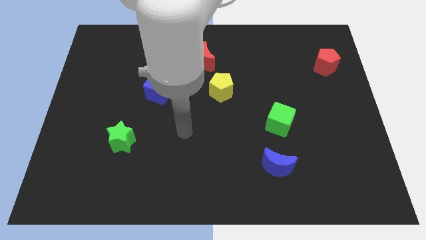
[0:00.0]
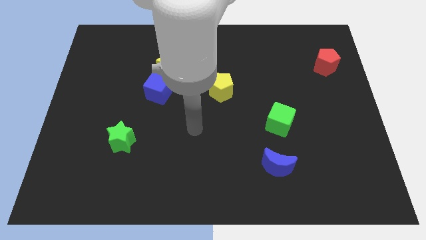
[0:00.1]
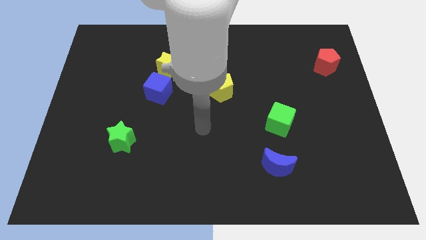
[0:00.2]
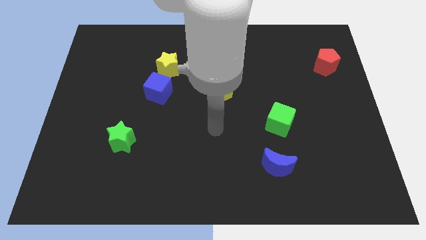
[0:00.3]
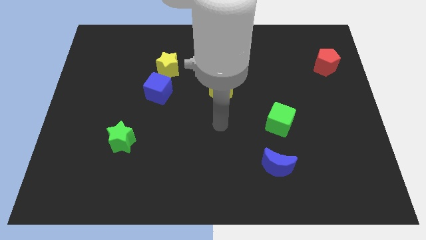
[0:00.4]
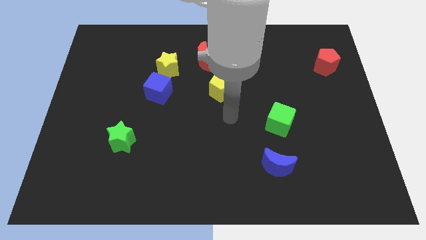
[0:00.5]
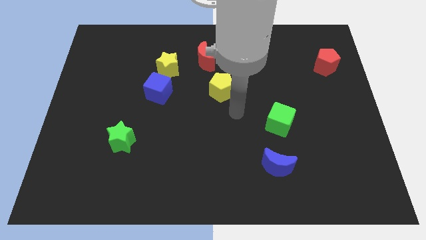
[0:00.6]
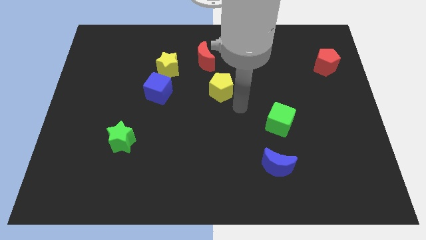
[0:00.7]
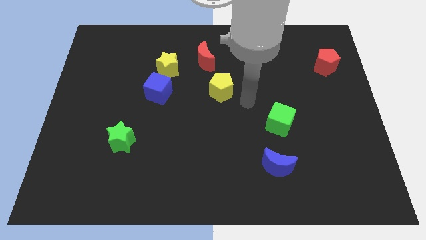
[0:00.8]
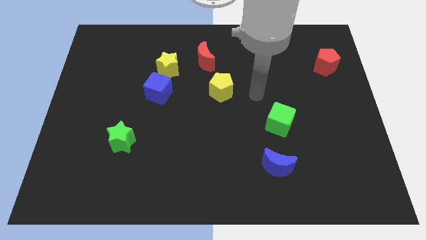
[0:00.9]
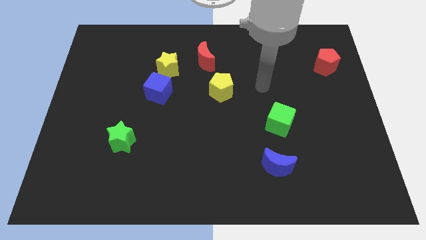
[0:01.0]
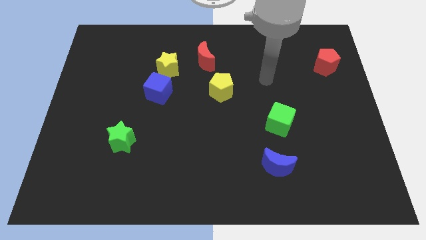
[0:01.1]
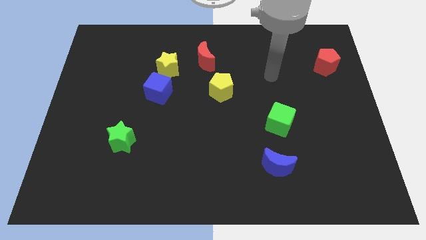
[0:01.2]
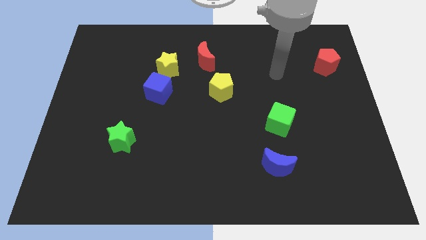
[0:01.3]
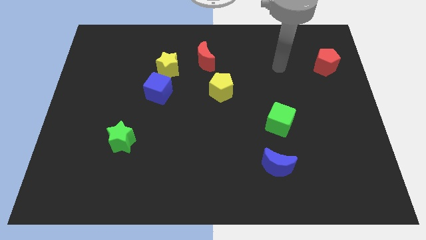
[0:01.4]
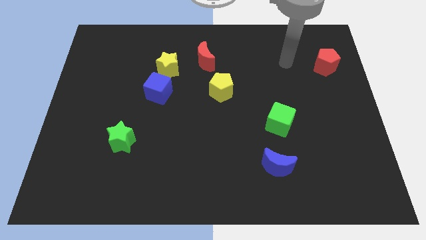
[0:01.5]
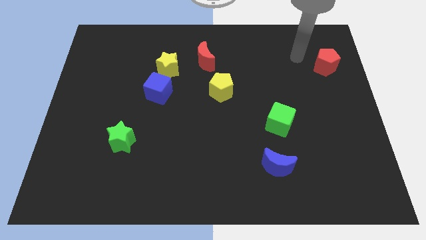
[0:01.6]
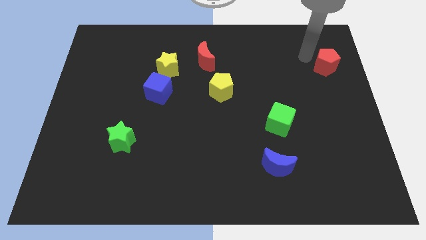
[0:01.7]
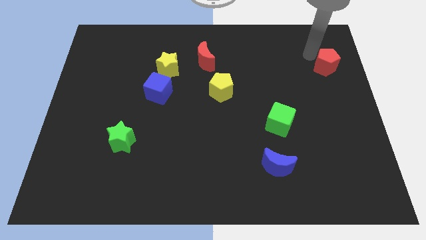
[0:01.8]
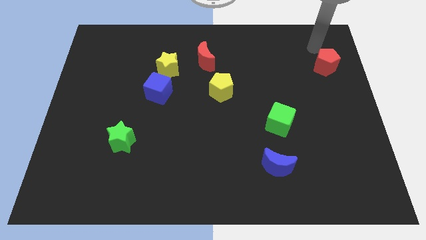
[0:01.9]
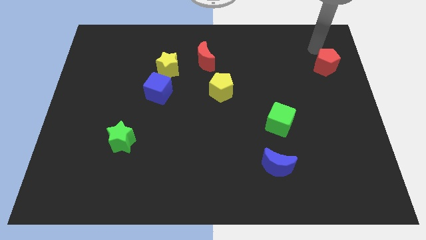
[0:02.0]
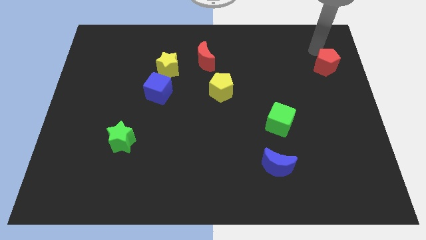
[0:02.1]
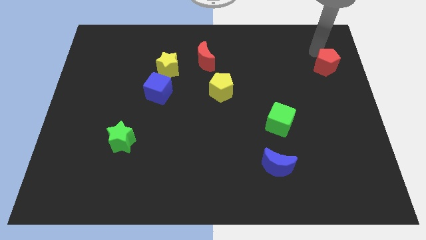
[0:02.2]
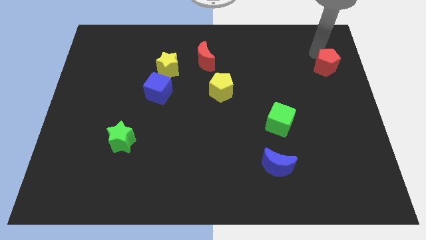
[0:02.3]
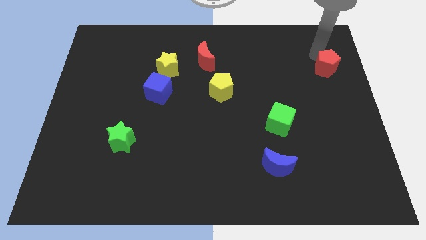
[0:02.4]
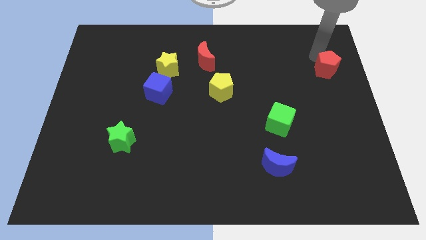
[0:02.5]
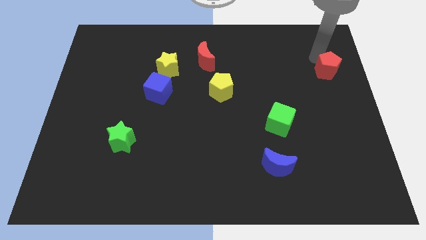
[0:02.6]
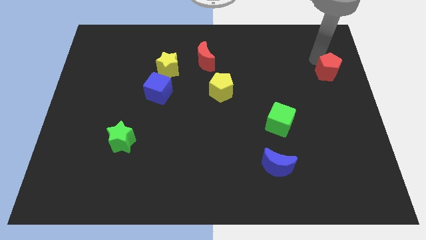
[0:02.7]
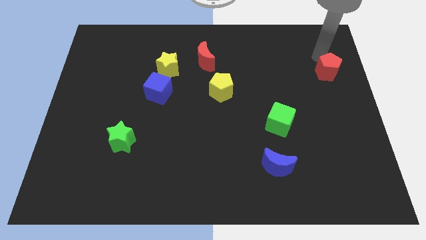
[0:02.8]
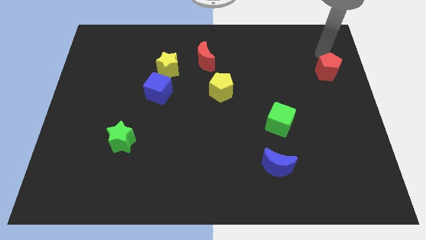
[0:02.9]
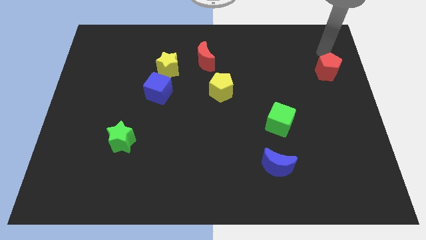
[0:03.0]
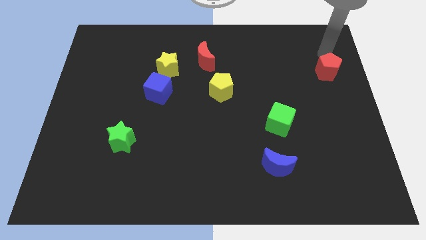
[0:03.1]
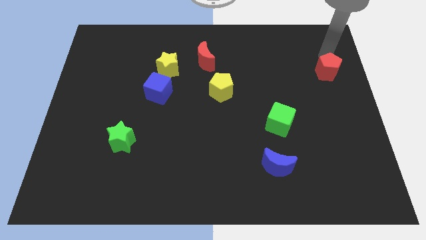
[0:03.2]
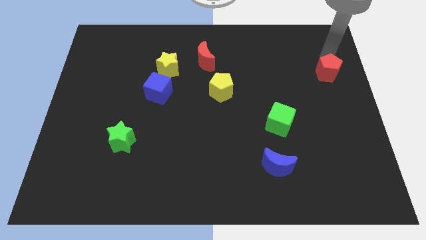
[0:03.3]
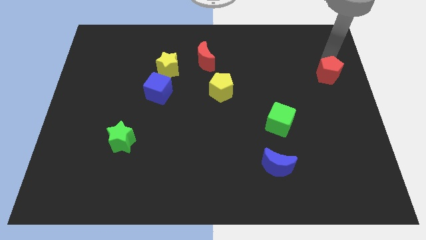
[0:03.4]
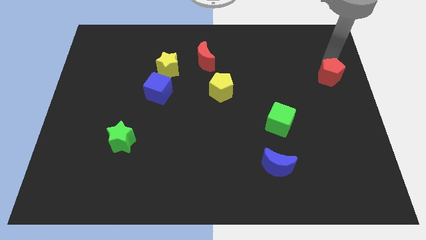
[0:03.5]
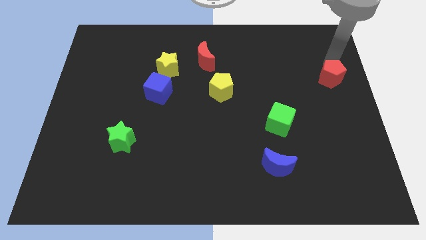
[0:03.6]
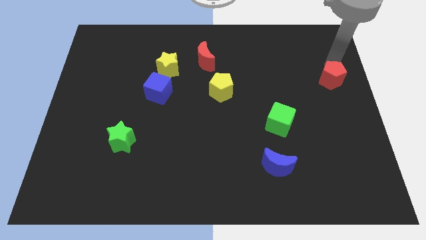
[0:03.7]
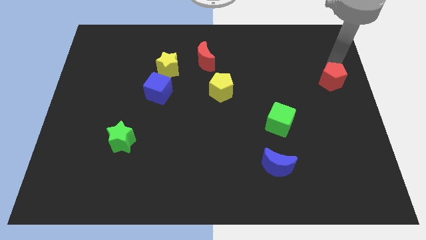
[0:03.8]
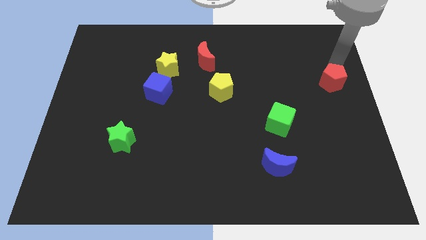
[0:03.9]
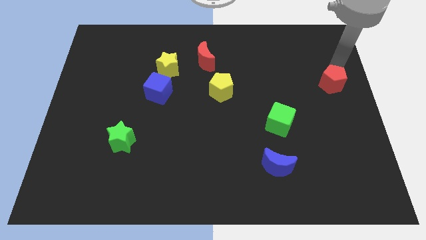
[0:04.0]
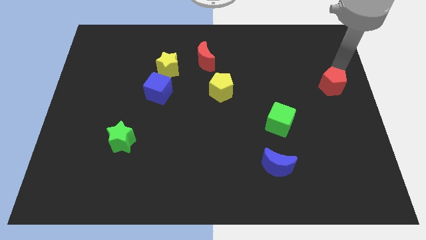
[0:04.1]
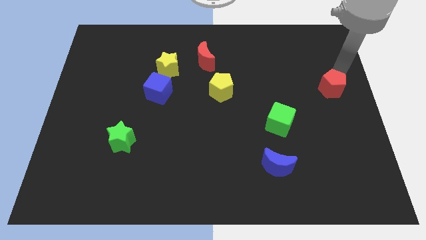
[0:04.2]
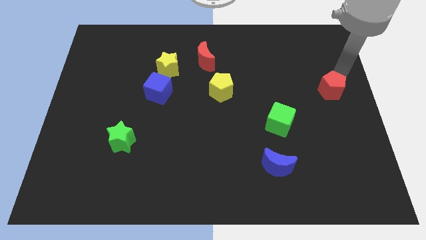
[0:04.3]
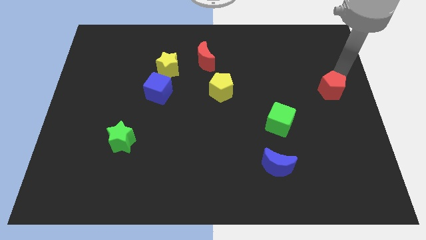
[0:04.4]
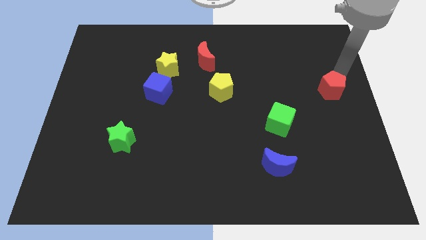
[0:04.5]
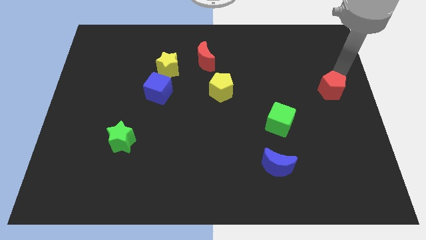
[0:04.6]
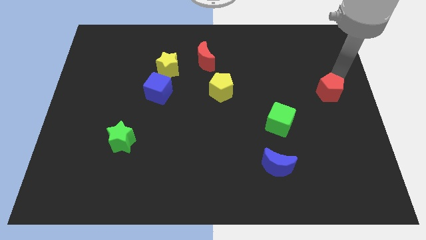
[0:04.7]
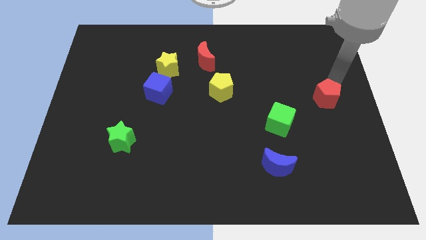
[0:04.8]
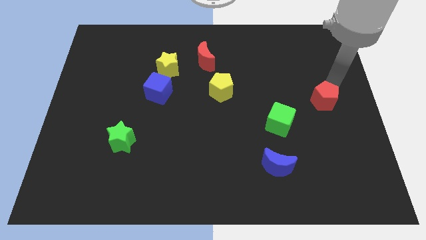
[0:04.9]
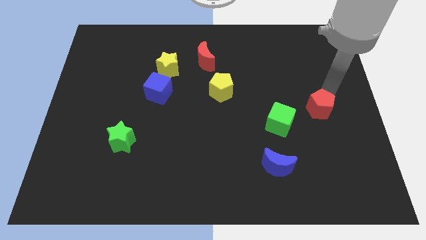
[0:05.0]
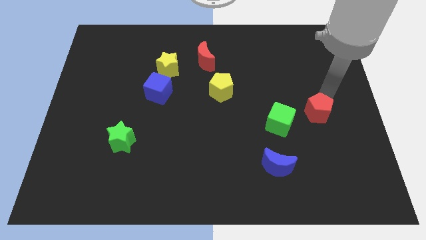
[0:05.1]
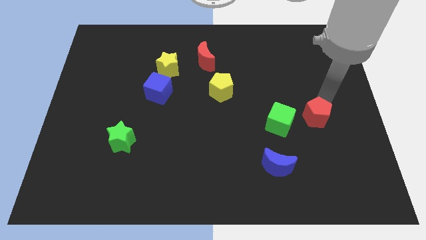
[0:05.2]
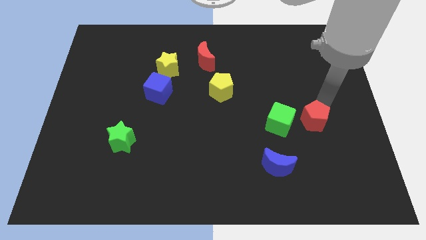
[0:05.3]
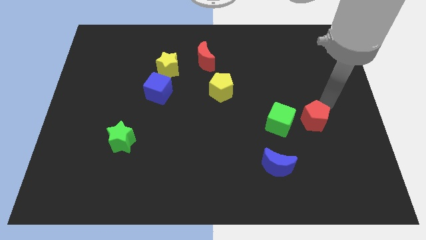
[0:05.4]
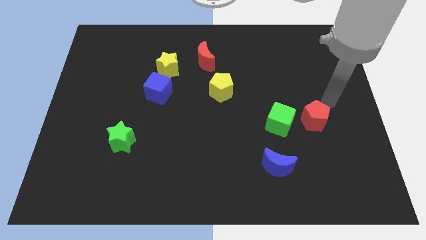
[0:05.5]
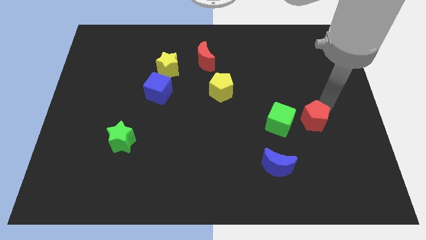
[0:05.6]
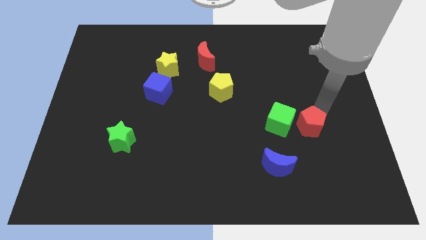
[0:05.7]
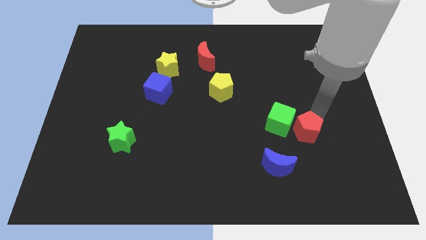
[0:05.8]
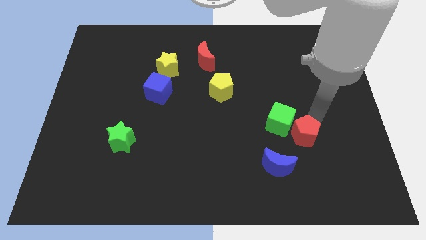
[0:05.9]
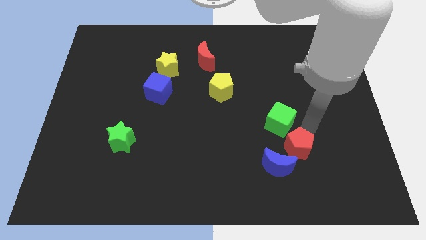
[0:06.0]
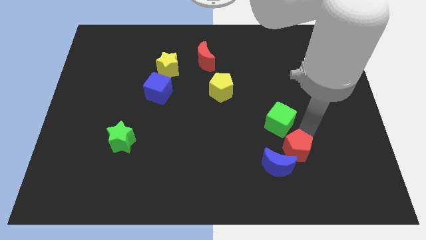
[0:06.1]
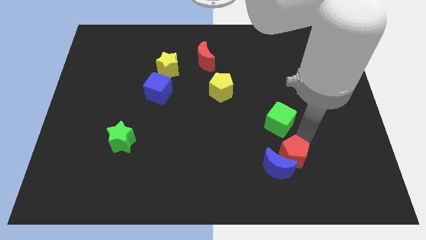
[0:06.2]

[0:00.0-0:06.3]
move the red pentagon close to the blue moon

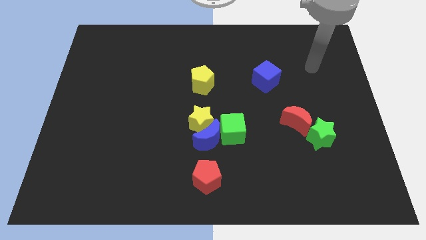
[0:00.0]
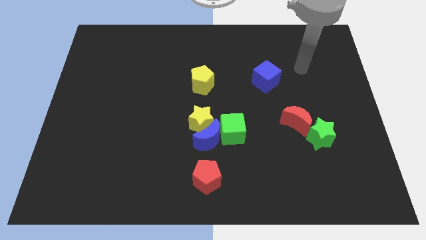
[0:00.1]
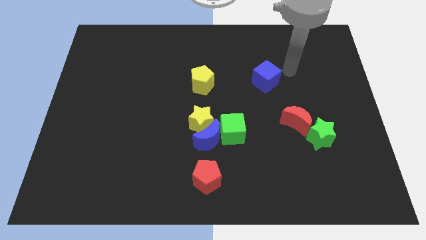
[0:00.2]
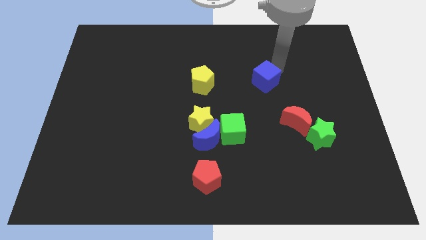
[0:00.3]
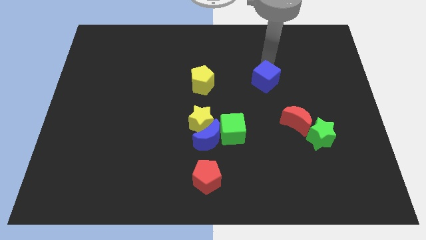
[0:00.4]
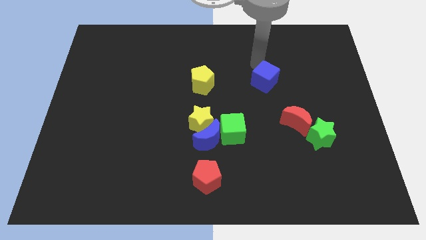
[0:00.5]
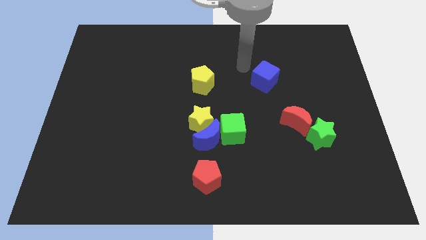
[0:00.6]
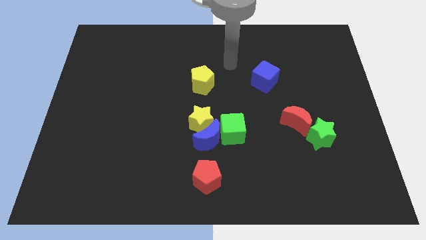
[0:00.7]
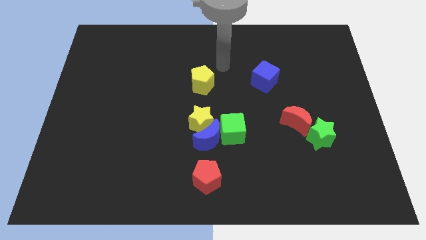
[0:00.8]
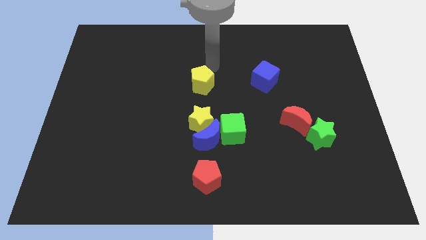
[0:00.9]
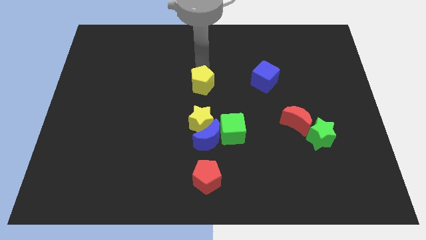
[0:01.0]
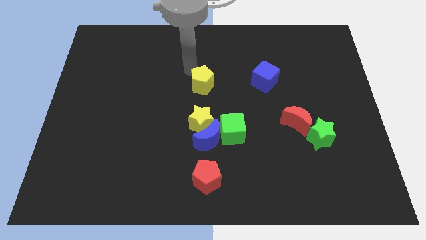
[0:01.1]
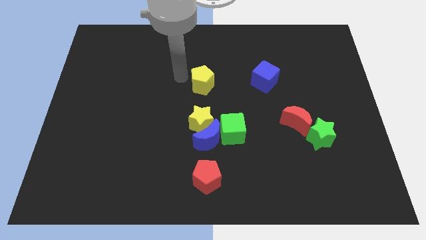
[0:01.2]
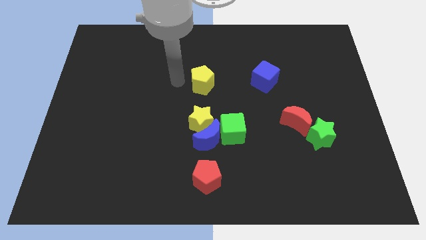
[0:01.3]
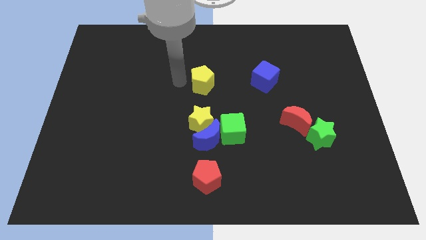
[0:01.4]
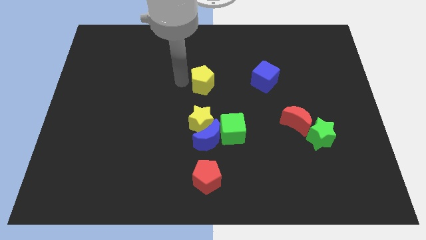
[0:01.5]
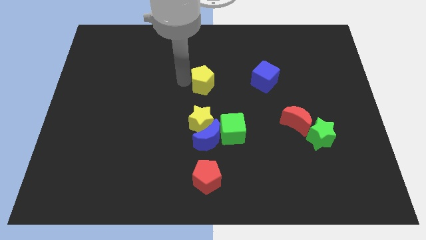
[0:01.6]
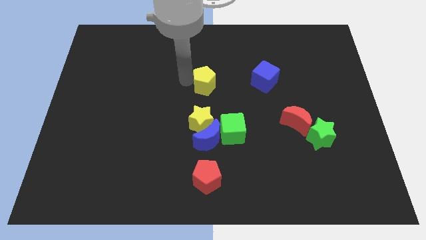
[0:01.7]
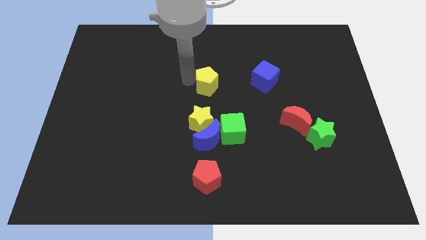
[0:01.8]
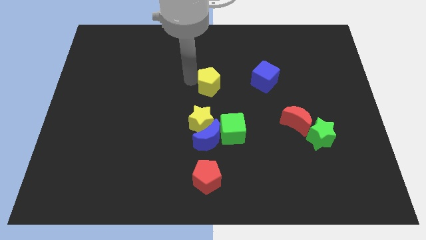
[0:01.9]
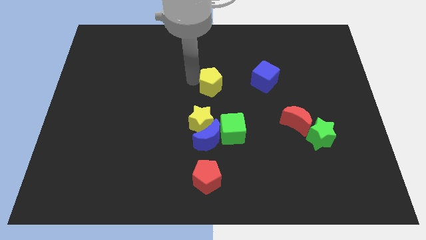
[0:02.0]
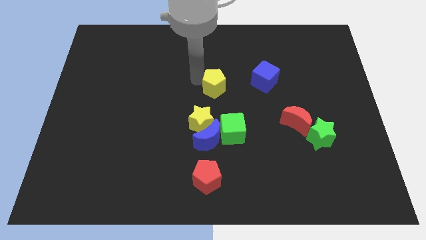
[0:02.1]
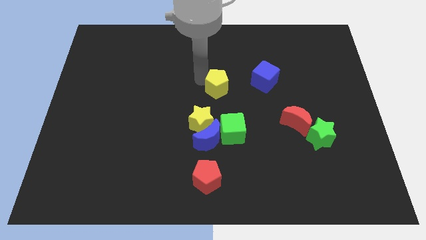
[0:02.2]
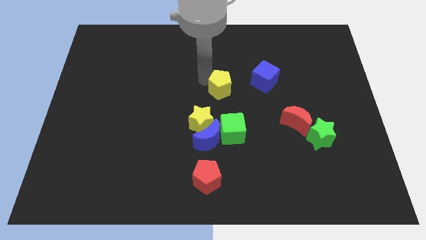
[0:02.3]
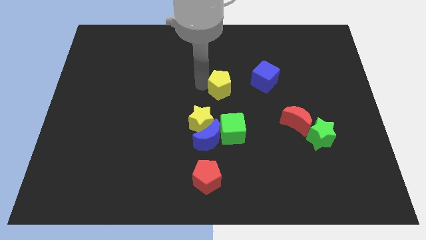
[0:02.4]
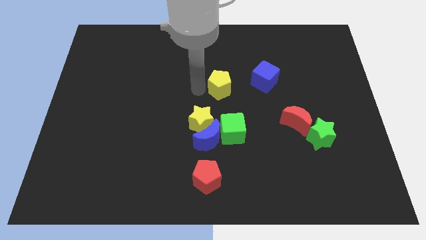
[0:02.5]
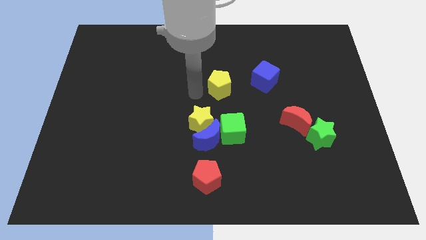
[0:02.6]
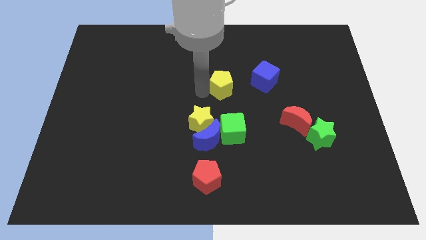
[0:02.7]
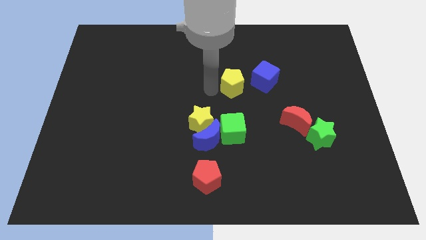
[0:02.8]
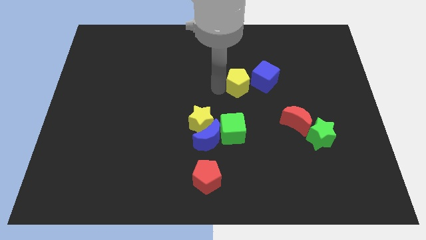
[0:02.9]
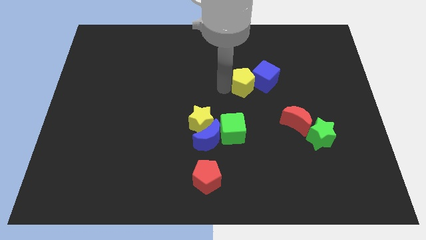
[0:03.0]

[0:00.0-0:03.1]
slide the yellow pentagon close to the blue cube
